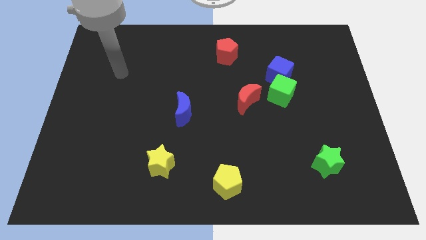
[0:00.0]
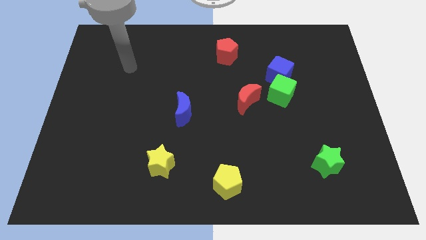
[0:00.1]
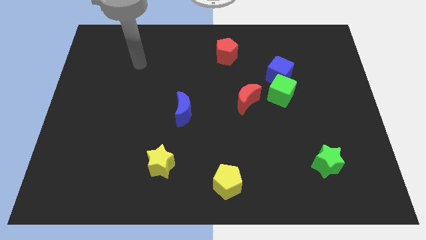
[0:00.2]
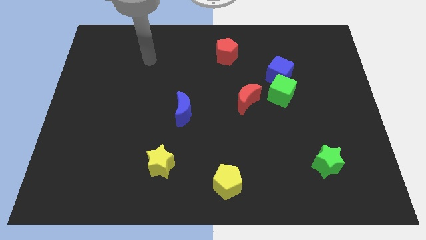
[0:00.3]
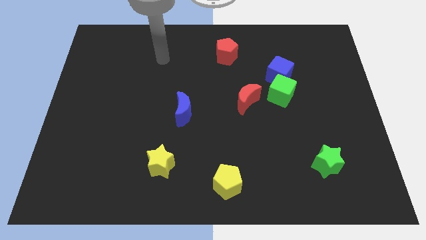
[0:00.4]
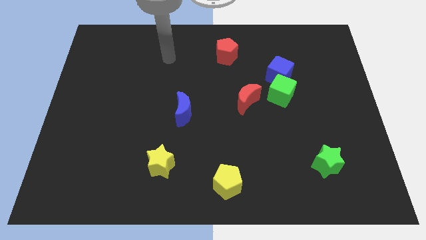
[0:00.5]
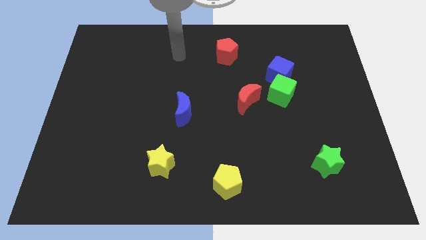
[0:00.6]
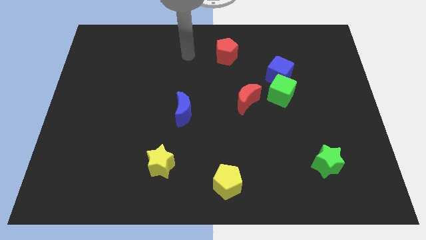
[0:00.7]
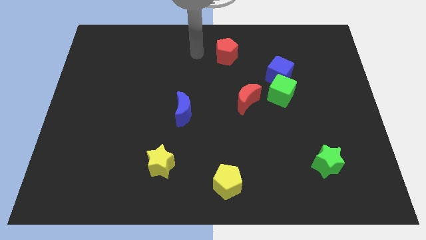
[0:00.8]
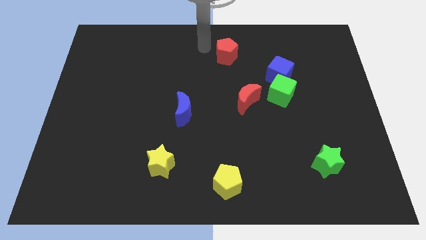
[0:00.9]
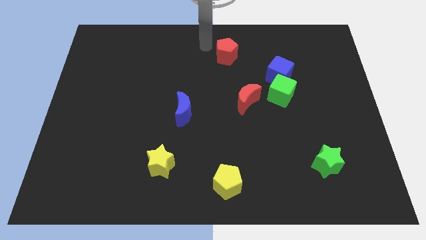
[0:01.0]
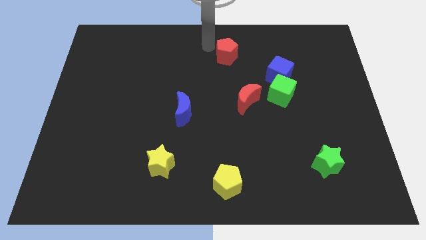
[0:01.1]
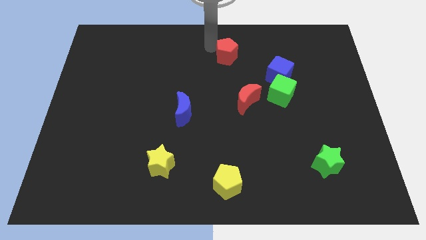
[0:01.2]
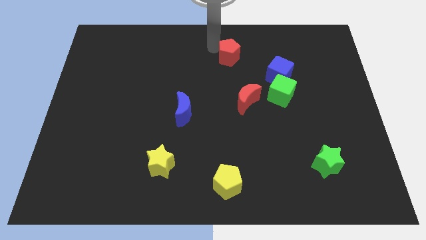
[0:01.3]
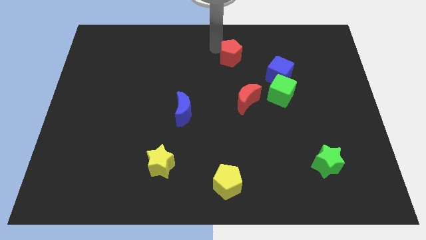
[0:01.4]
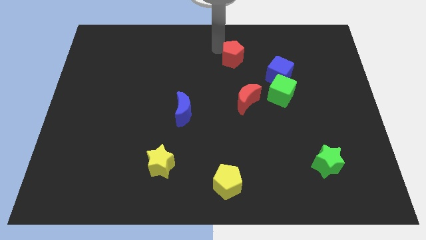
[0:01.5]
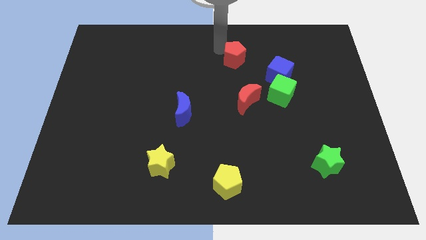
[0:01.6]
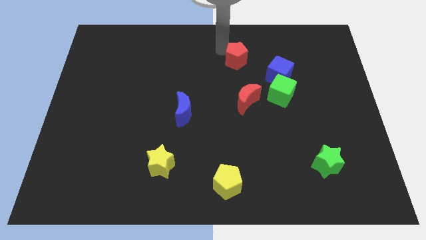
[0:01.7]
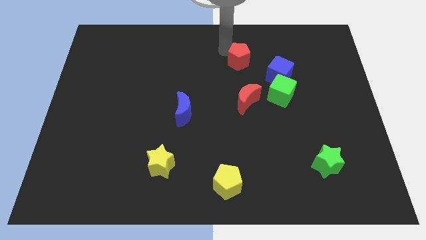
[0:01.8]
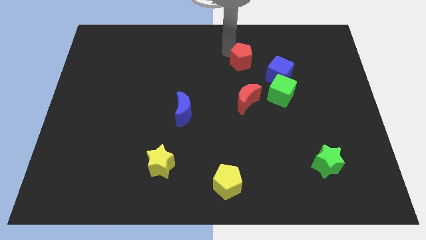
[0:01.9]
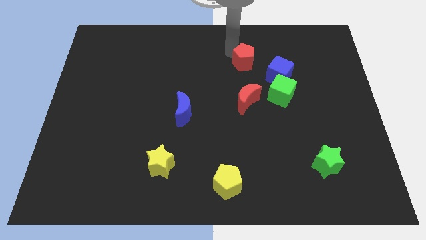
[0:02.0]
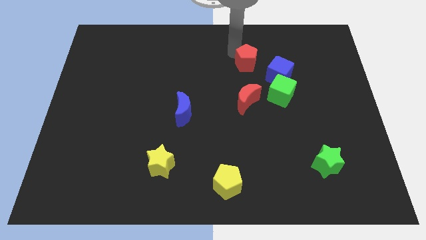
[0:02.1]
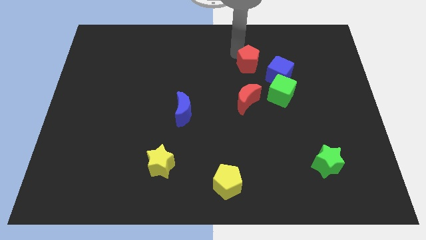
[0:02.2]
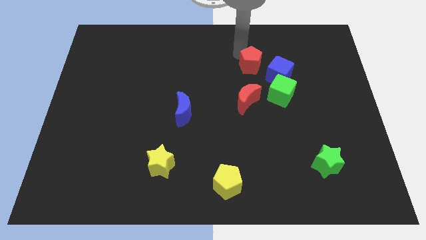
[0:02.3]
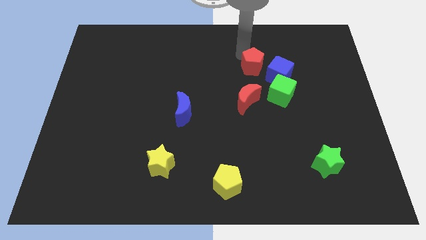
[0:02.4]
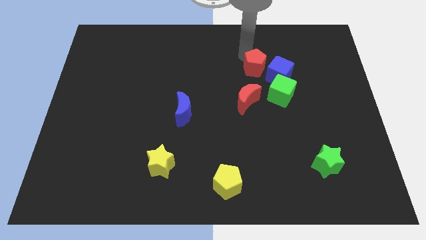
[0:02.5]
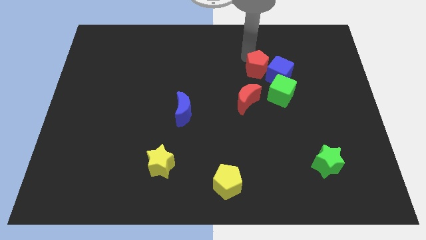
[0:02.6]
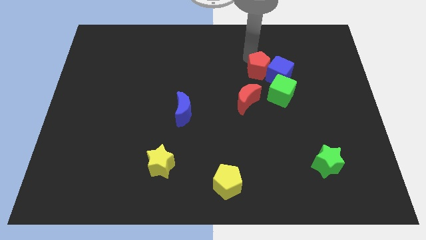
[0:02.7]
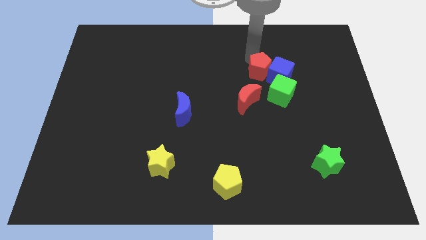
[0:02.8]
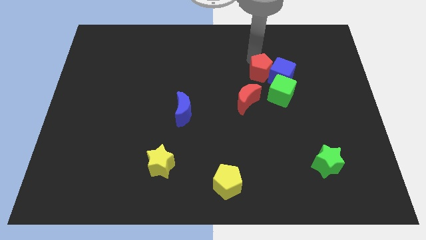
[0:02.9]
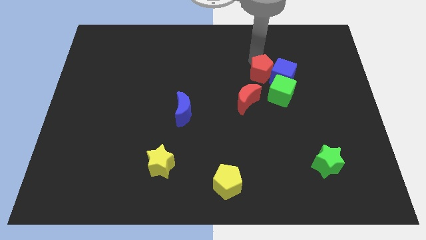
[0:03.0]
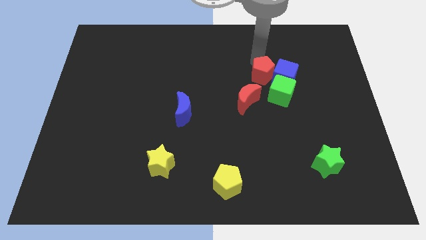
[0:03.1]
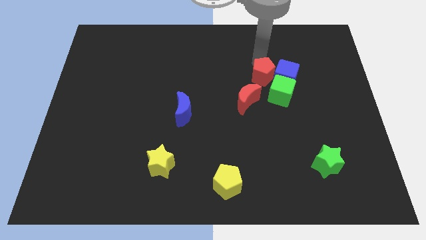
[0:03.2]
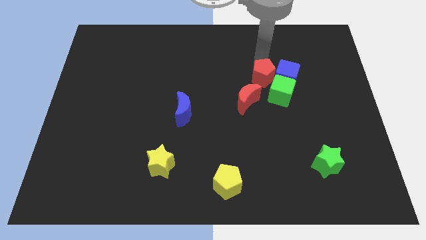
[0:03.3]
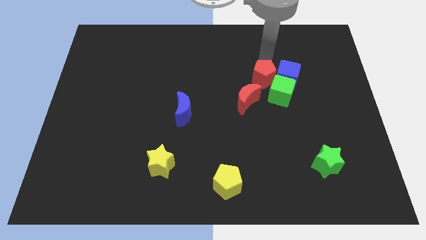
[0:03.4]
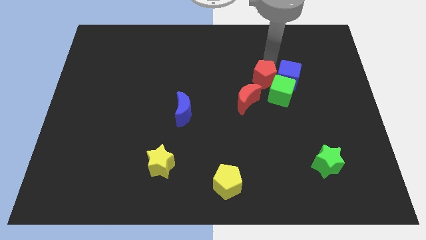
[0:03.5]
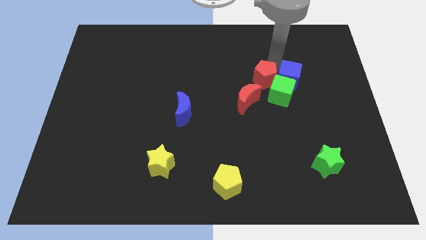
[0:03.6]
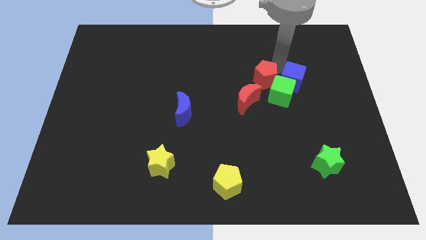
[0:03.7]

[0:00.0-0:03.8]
move the red pentagon towards the green cube

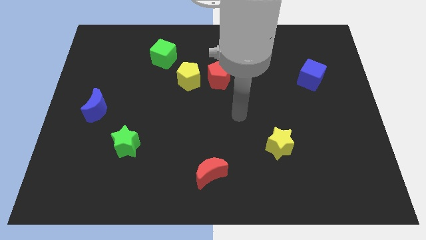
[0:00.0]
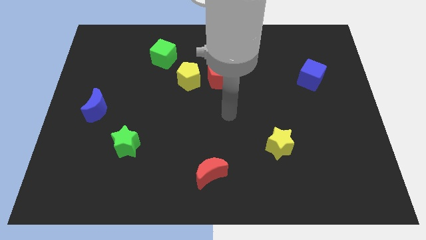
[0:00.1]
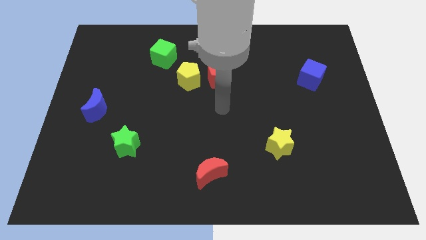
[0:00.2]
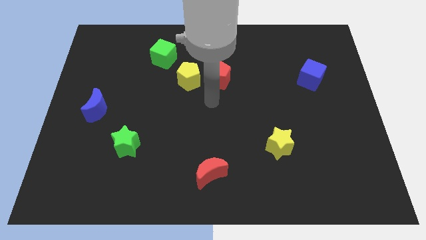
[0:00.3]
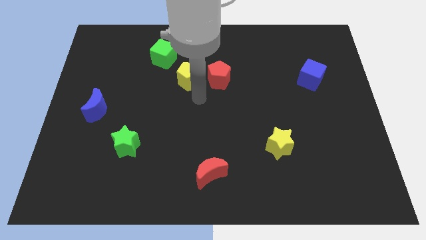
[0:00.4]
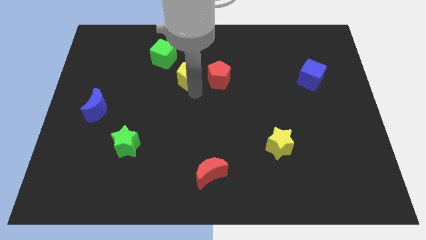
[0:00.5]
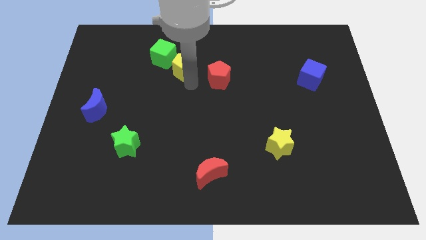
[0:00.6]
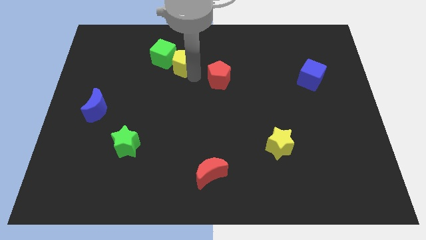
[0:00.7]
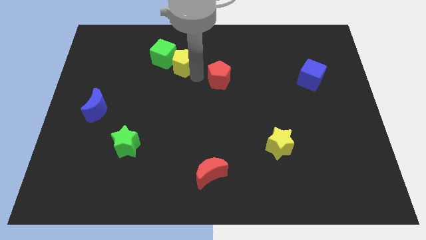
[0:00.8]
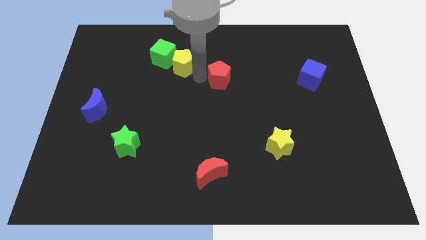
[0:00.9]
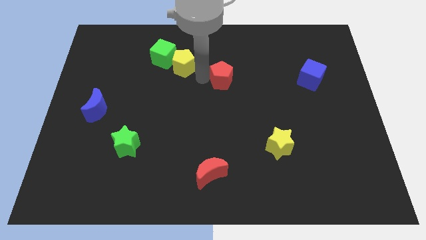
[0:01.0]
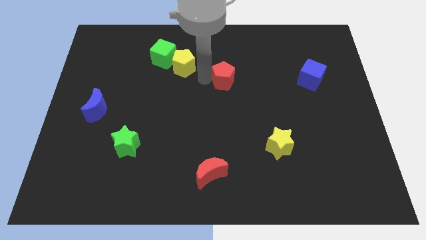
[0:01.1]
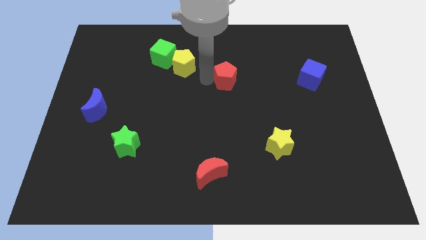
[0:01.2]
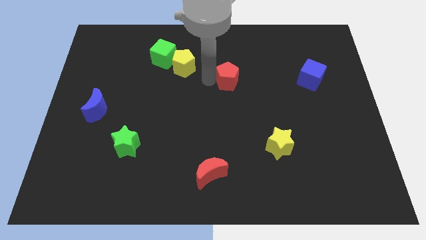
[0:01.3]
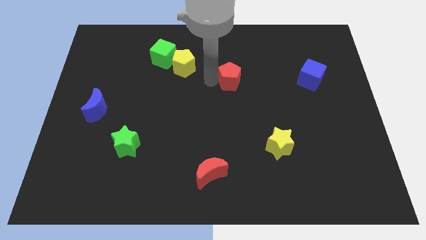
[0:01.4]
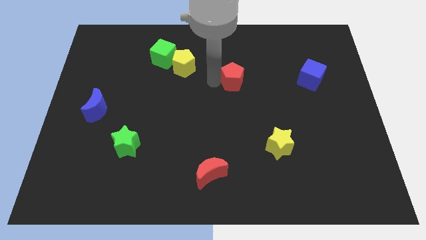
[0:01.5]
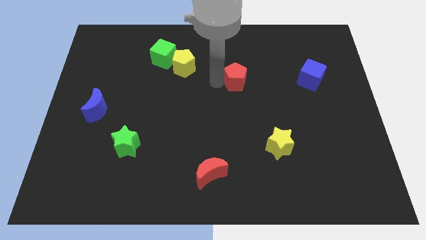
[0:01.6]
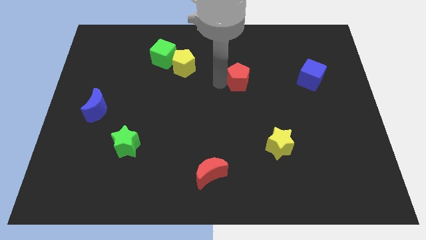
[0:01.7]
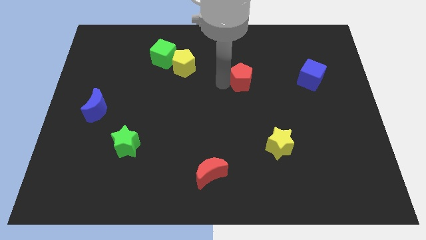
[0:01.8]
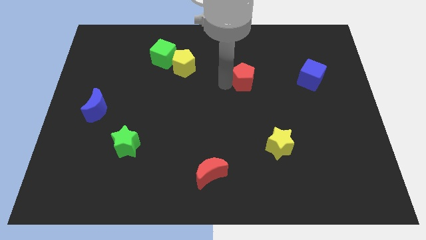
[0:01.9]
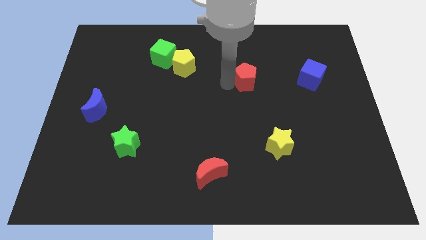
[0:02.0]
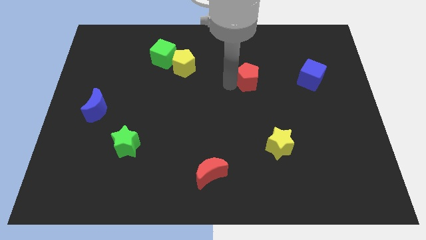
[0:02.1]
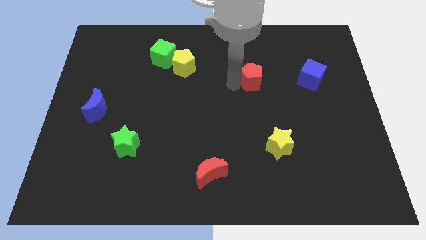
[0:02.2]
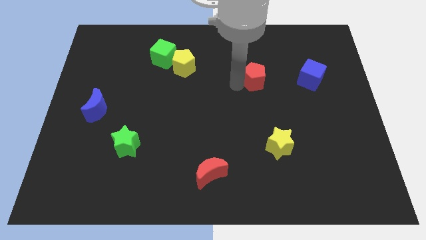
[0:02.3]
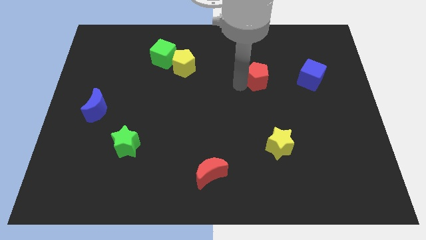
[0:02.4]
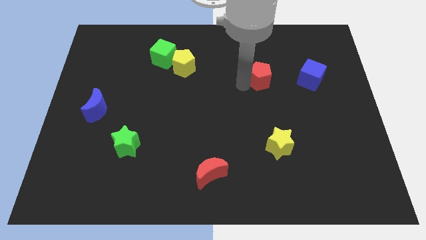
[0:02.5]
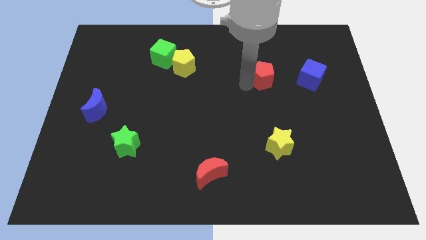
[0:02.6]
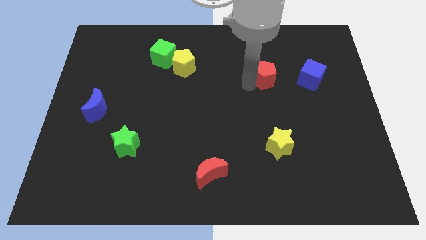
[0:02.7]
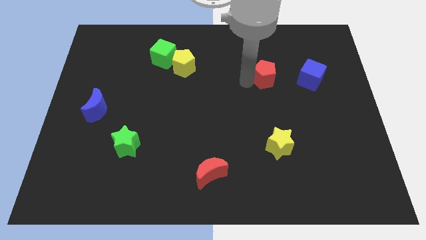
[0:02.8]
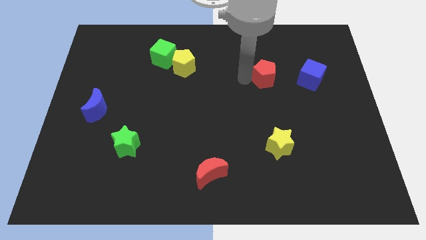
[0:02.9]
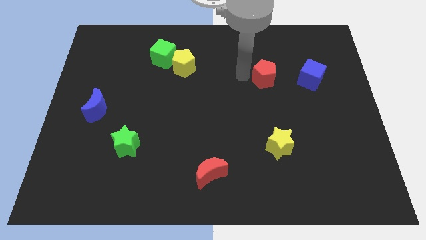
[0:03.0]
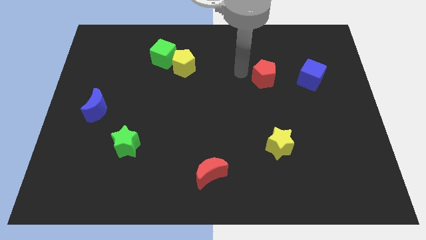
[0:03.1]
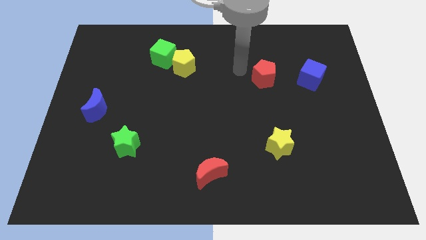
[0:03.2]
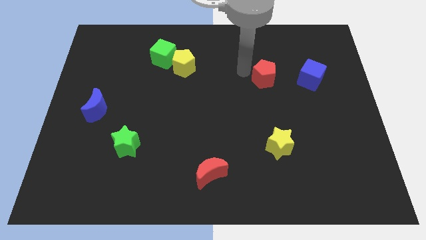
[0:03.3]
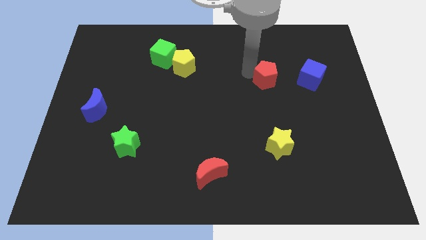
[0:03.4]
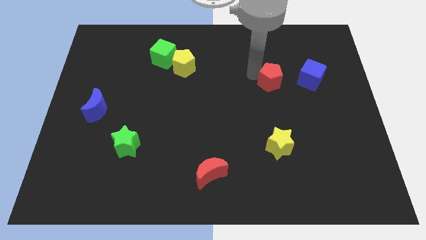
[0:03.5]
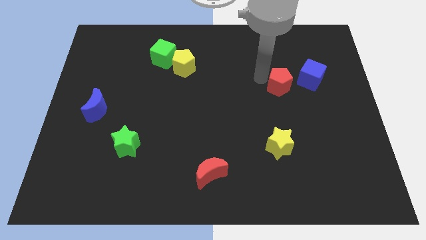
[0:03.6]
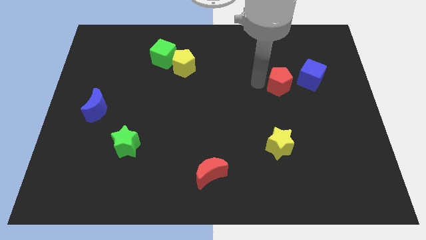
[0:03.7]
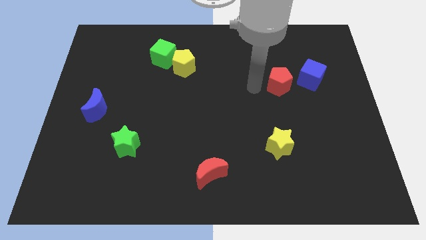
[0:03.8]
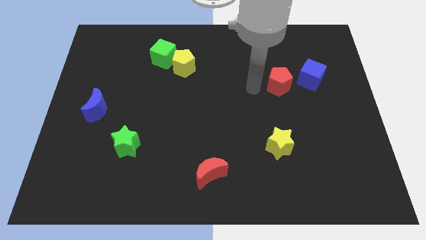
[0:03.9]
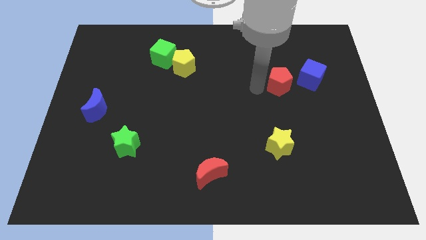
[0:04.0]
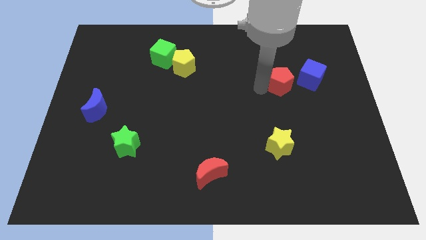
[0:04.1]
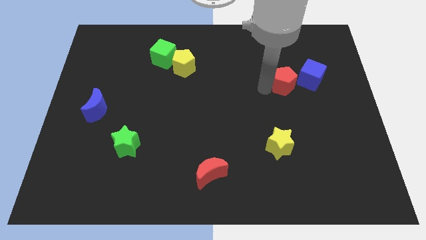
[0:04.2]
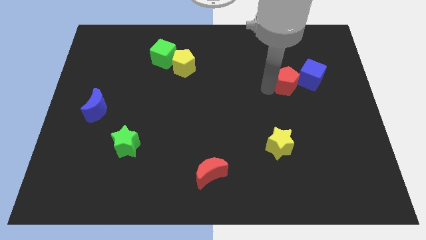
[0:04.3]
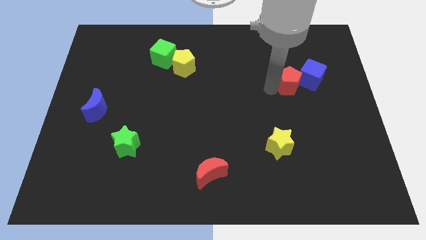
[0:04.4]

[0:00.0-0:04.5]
push the red pentagon next to the blue cube
